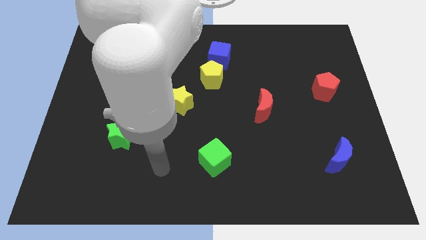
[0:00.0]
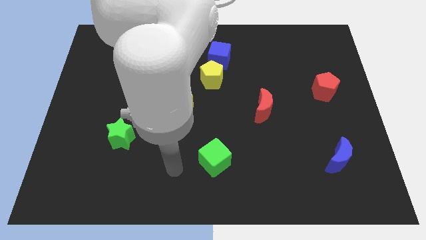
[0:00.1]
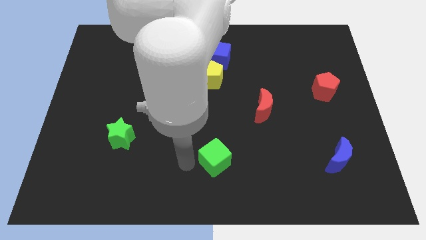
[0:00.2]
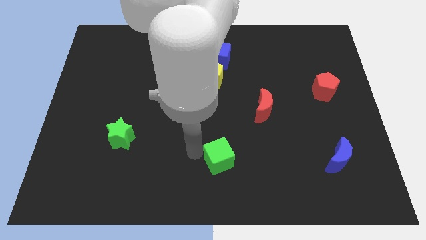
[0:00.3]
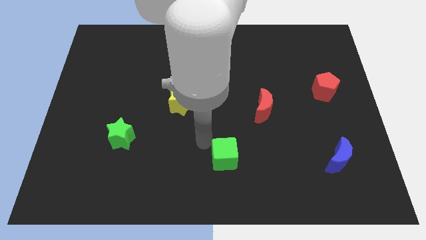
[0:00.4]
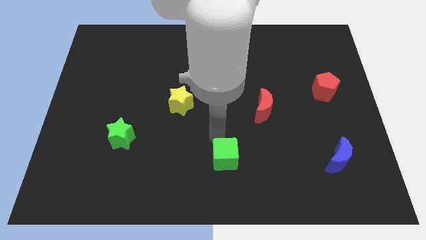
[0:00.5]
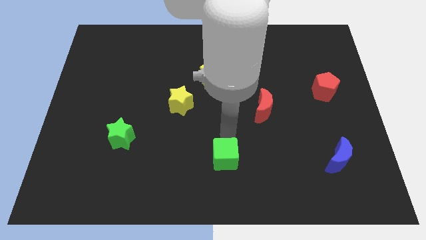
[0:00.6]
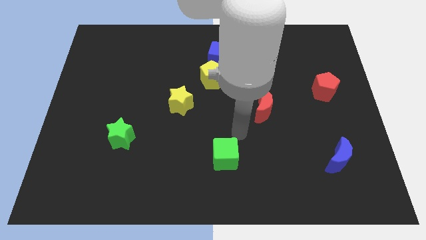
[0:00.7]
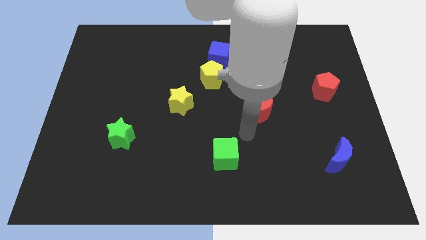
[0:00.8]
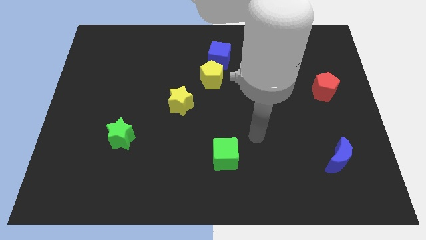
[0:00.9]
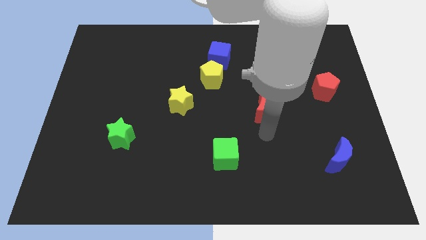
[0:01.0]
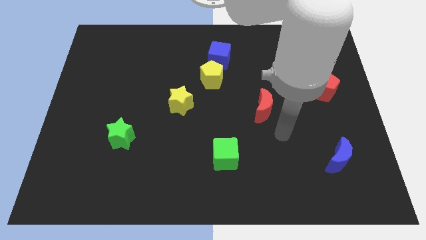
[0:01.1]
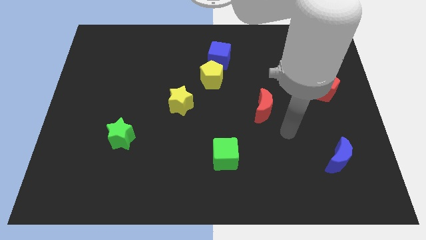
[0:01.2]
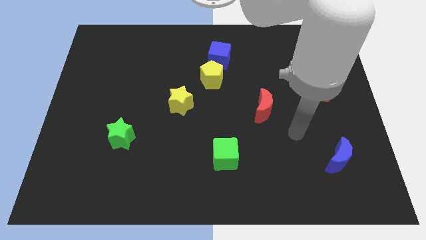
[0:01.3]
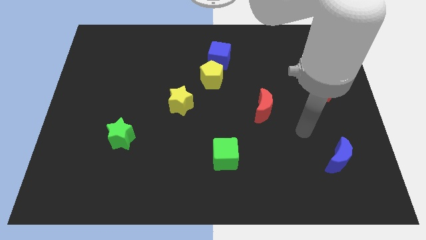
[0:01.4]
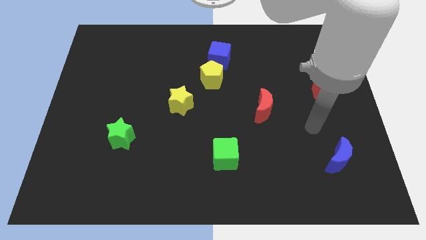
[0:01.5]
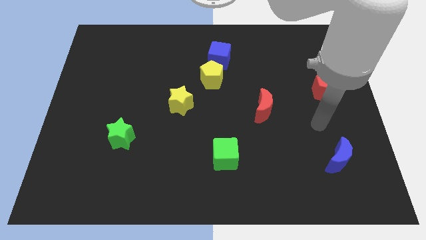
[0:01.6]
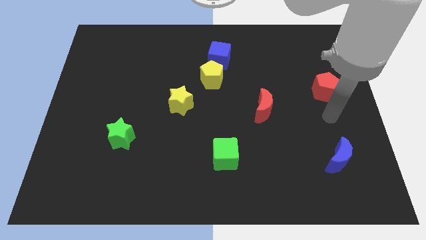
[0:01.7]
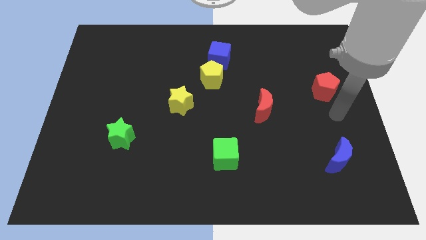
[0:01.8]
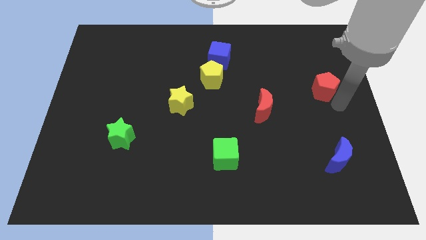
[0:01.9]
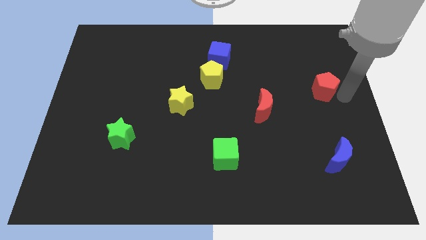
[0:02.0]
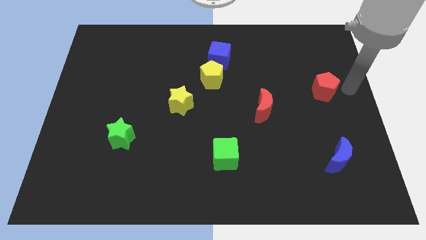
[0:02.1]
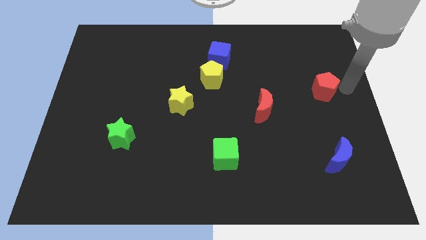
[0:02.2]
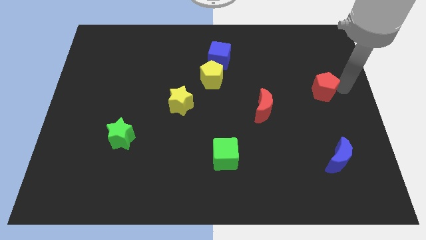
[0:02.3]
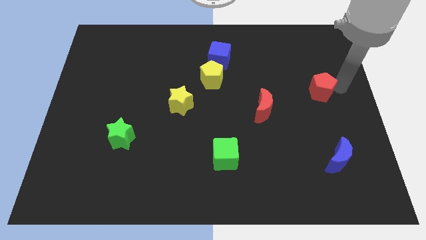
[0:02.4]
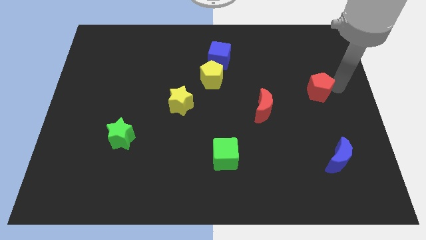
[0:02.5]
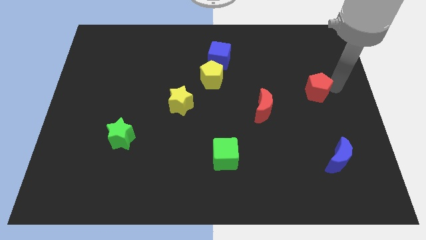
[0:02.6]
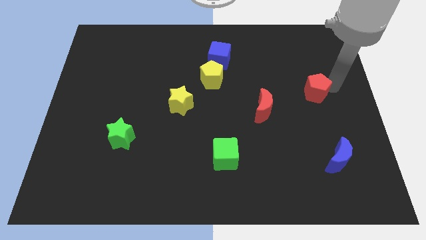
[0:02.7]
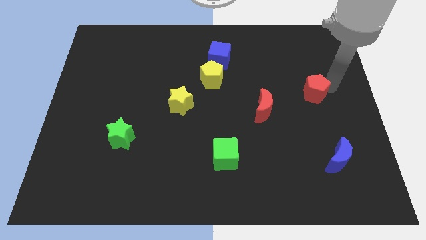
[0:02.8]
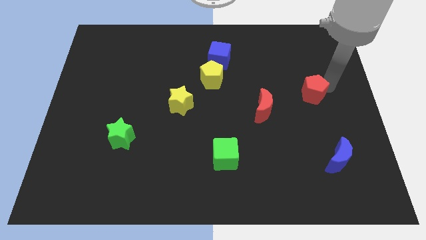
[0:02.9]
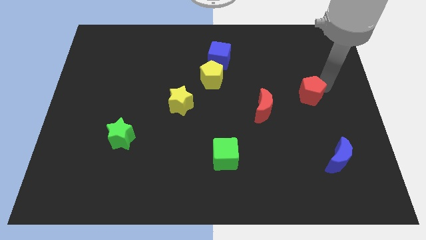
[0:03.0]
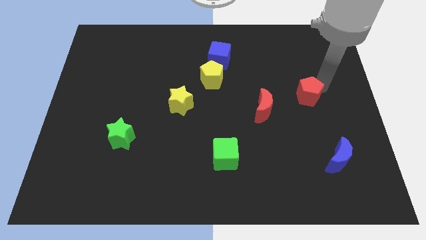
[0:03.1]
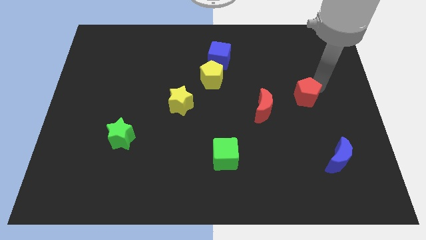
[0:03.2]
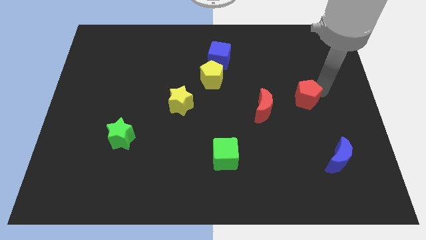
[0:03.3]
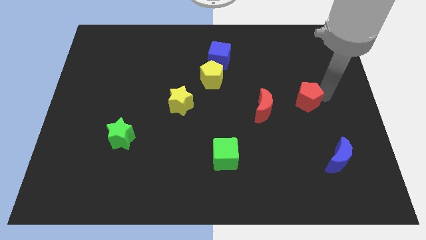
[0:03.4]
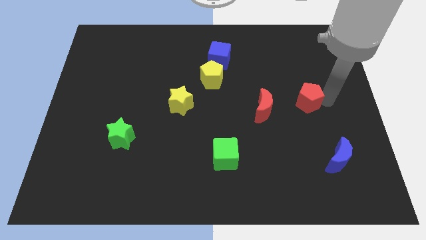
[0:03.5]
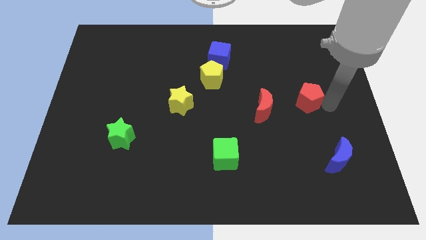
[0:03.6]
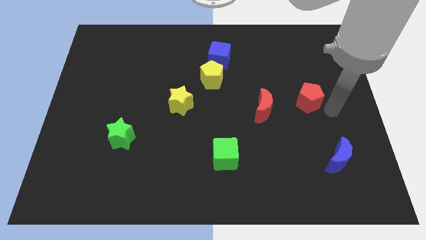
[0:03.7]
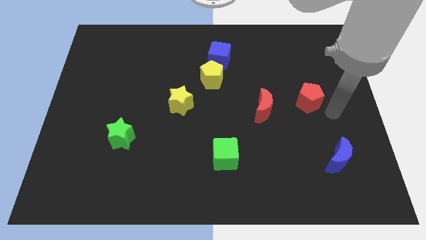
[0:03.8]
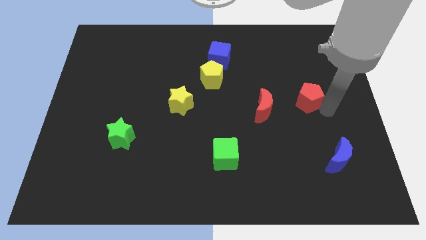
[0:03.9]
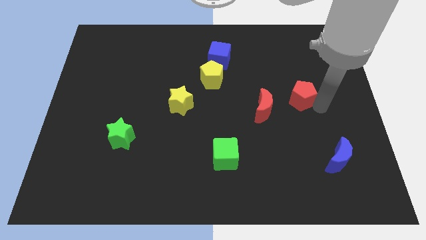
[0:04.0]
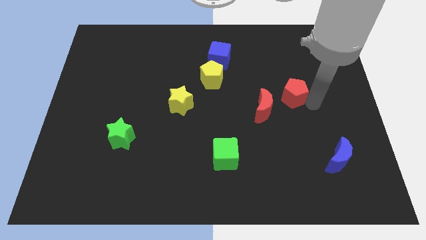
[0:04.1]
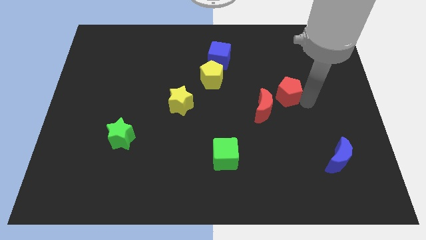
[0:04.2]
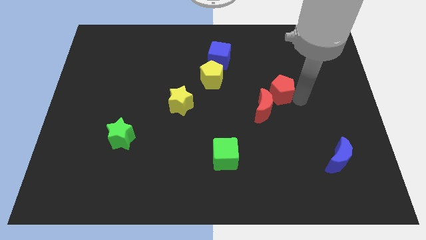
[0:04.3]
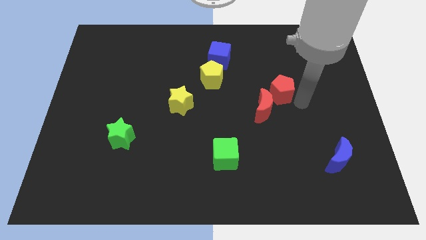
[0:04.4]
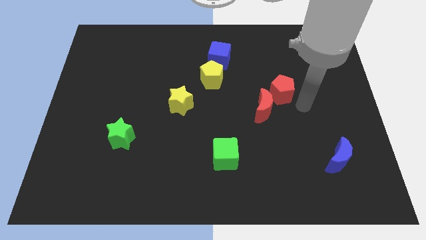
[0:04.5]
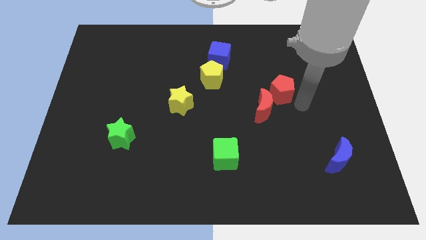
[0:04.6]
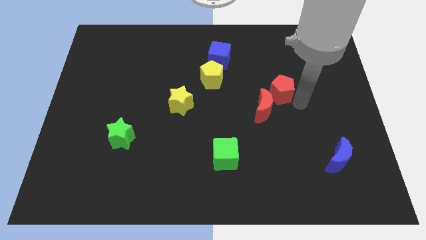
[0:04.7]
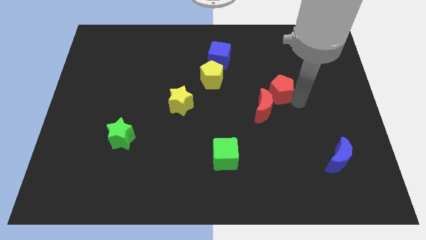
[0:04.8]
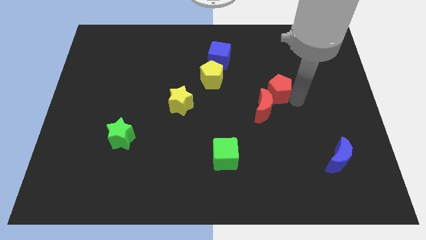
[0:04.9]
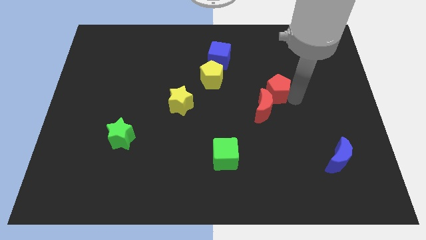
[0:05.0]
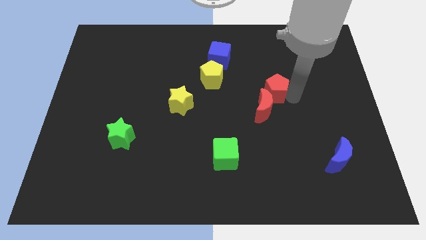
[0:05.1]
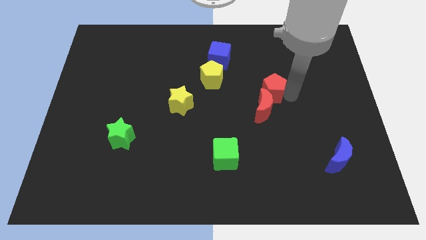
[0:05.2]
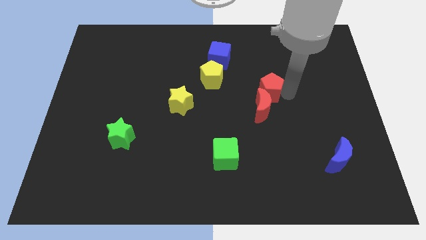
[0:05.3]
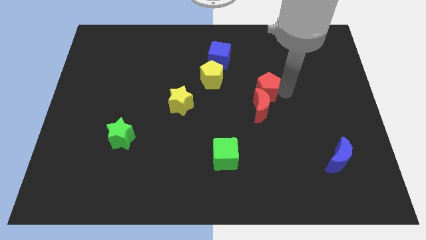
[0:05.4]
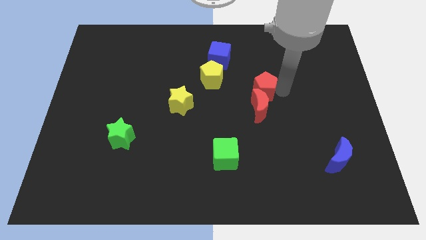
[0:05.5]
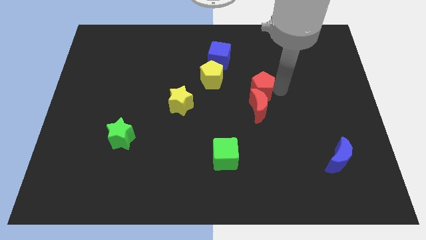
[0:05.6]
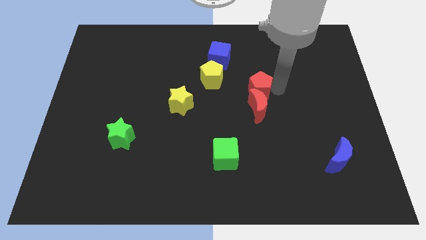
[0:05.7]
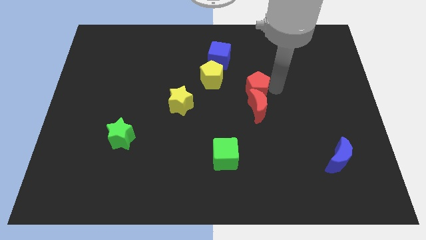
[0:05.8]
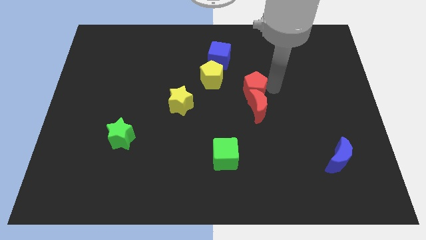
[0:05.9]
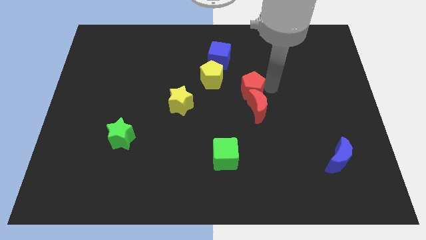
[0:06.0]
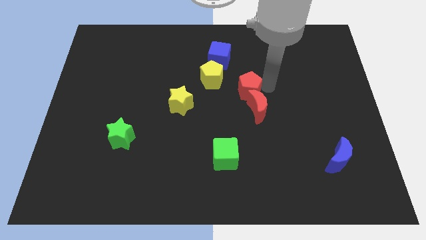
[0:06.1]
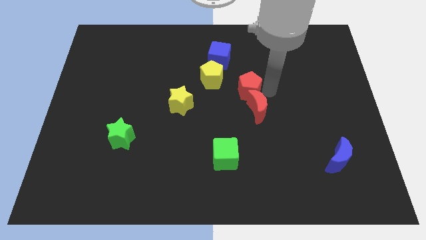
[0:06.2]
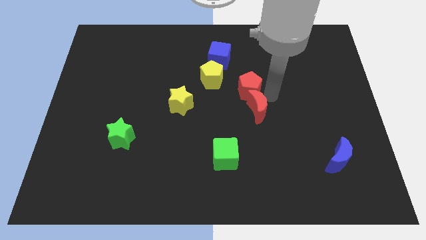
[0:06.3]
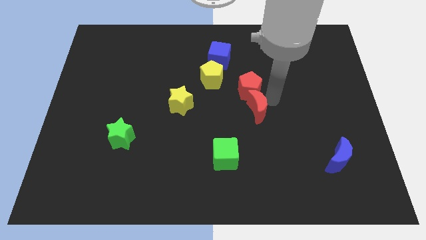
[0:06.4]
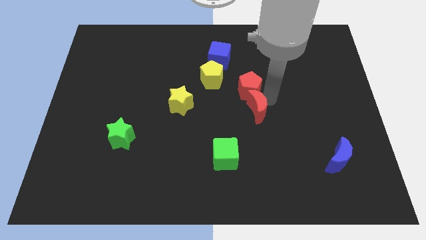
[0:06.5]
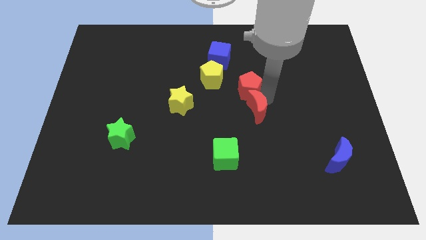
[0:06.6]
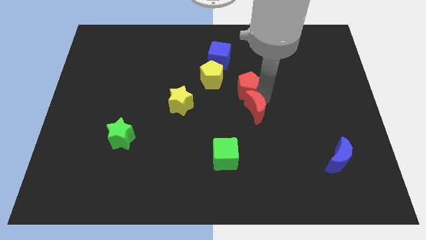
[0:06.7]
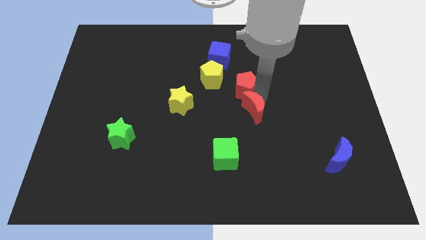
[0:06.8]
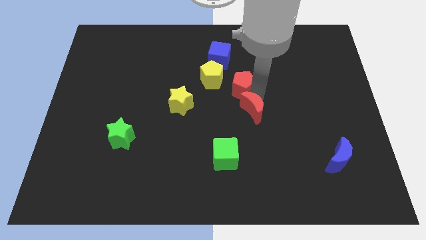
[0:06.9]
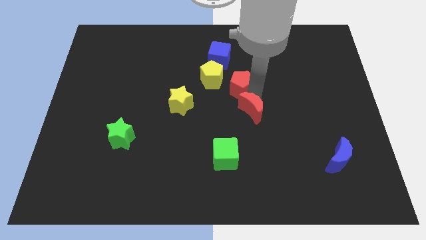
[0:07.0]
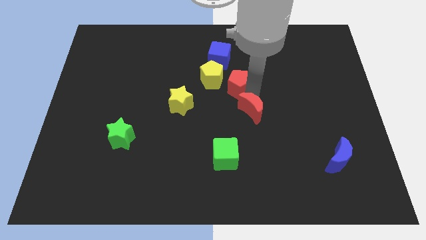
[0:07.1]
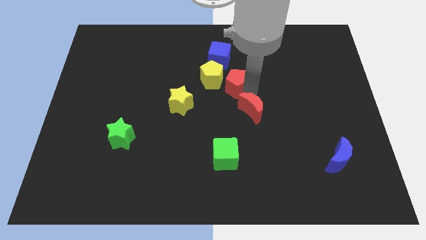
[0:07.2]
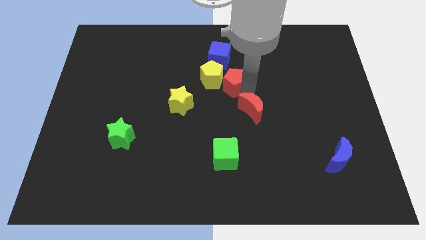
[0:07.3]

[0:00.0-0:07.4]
push the red pentagon to the yellow pentagon
